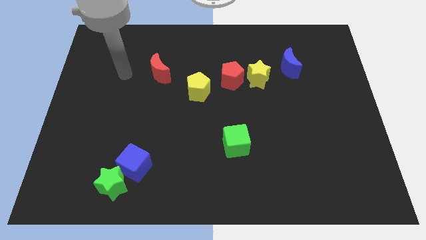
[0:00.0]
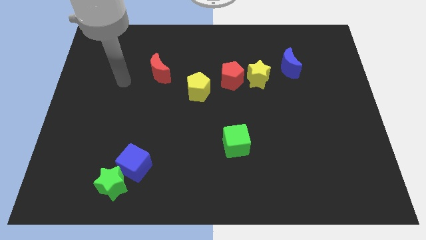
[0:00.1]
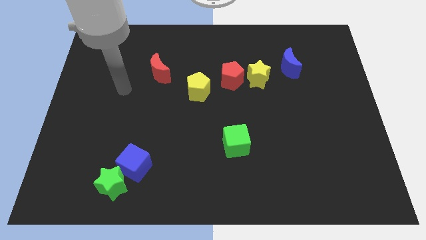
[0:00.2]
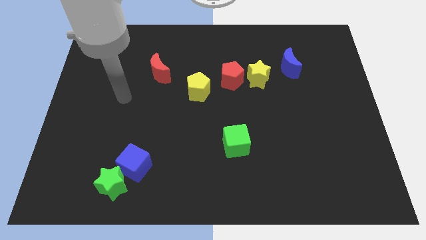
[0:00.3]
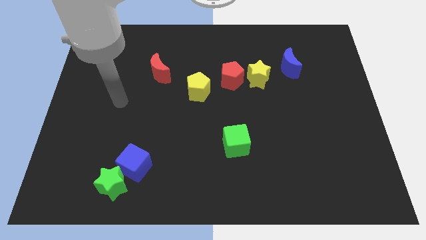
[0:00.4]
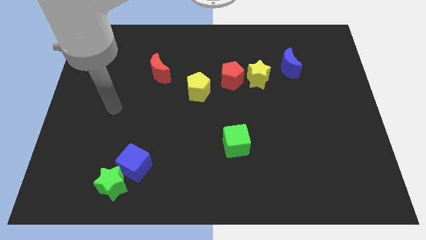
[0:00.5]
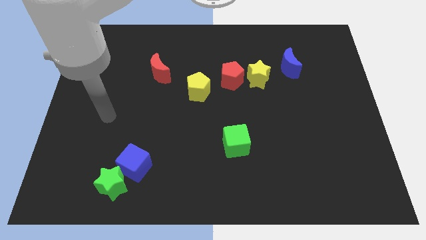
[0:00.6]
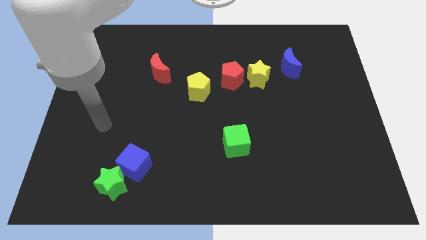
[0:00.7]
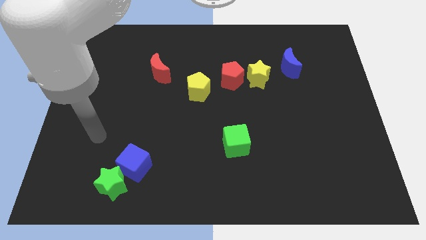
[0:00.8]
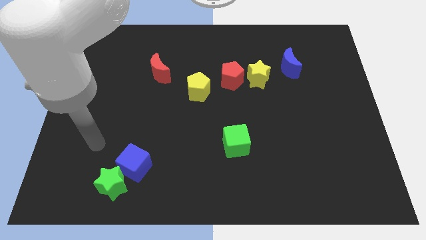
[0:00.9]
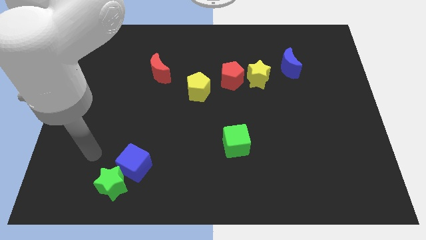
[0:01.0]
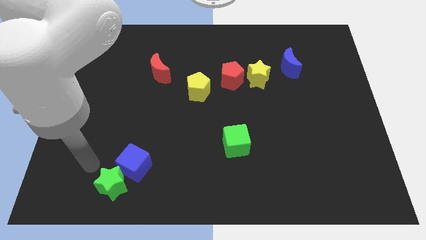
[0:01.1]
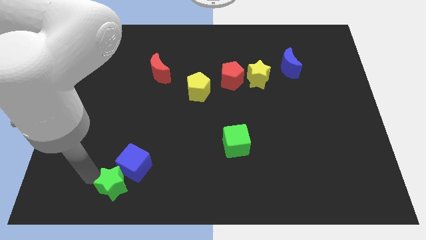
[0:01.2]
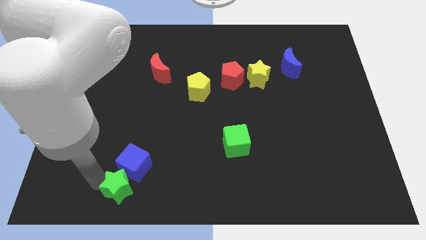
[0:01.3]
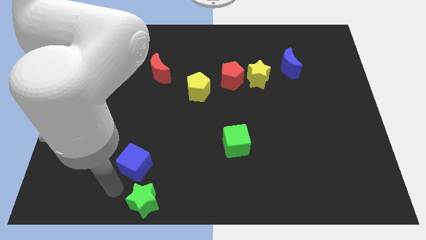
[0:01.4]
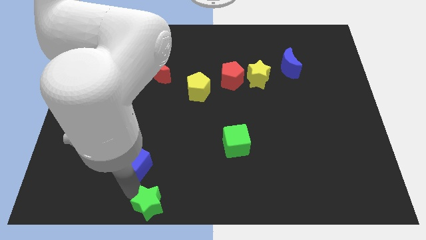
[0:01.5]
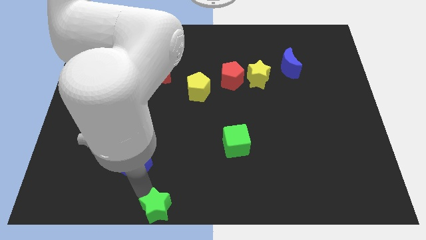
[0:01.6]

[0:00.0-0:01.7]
pull the blue cube apart from the green star

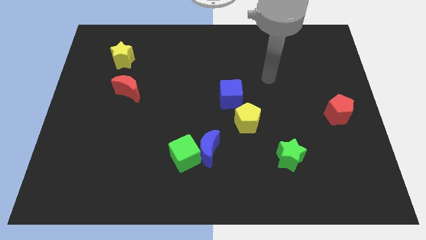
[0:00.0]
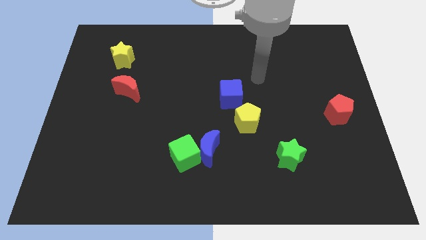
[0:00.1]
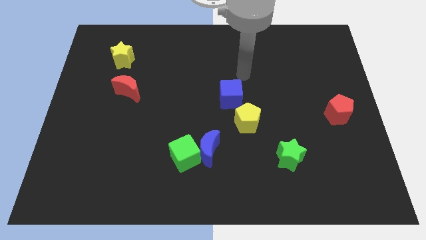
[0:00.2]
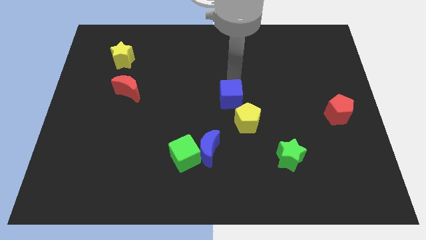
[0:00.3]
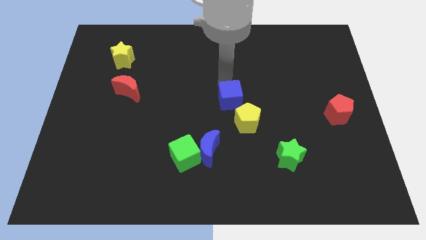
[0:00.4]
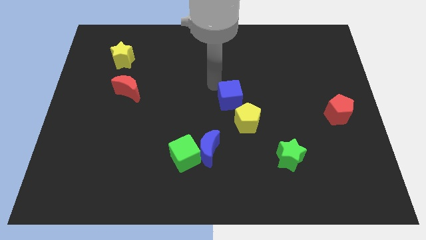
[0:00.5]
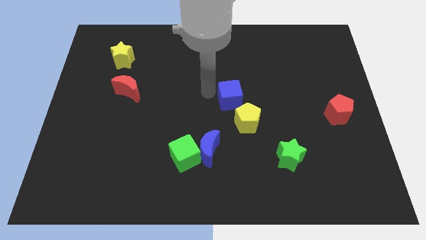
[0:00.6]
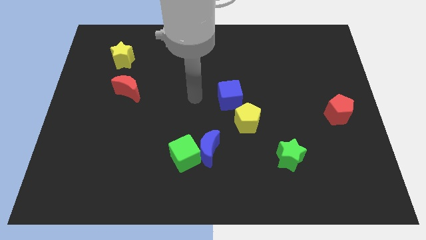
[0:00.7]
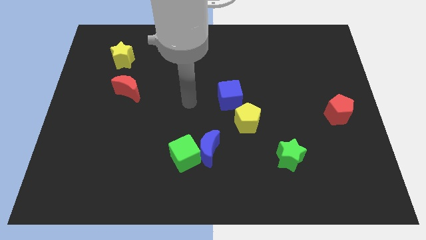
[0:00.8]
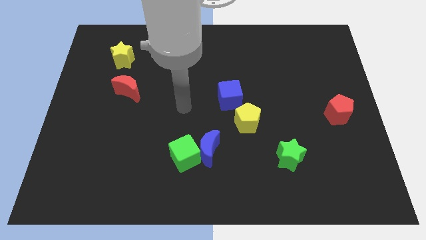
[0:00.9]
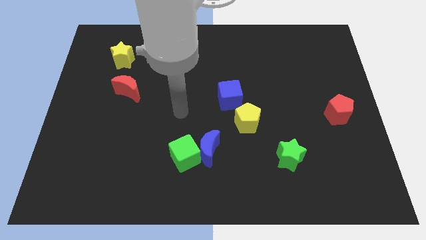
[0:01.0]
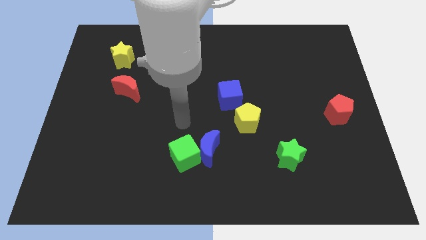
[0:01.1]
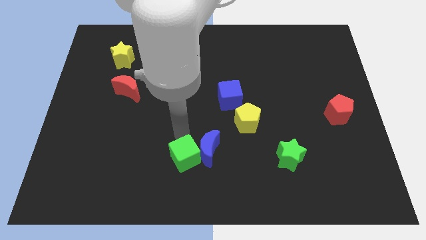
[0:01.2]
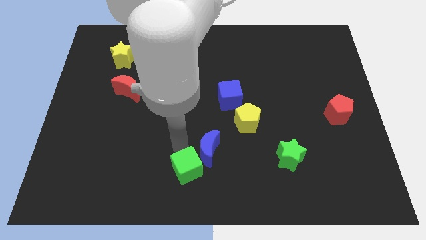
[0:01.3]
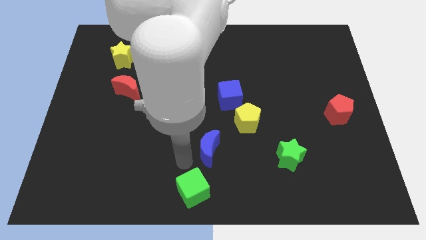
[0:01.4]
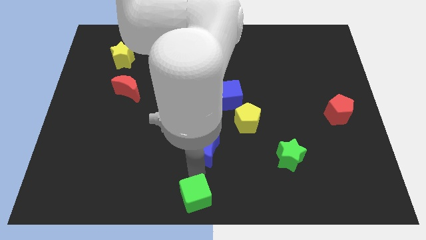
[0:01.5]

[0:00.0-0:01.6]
separate the blue moon from the green cube

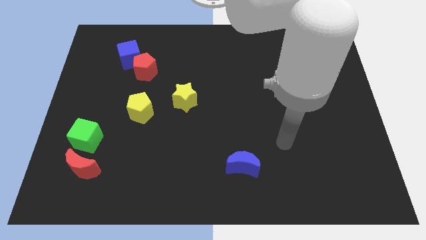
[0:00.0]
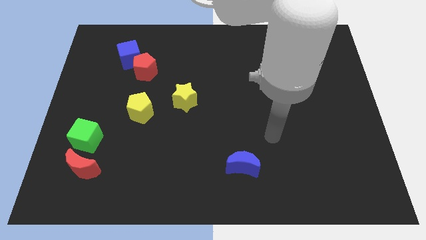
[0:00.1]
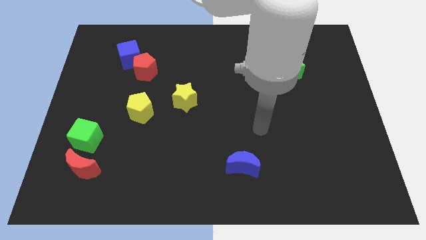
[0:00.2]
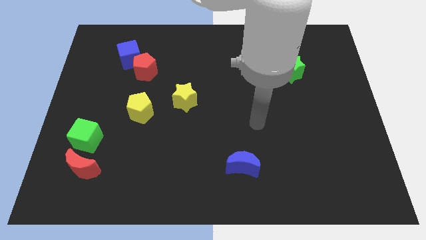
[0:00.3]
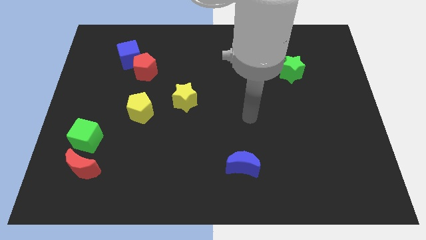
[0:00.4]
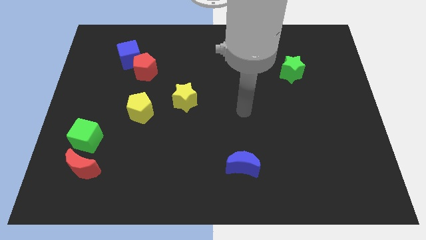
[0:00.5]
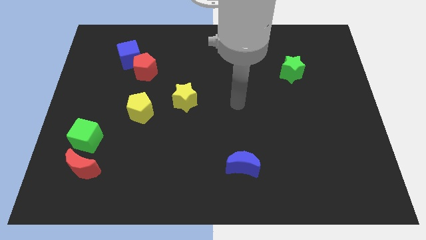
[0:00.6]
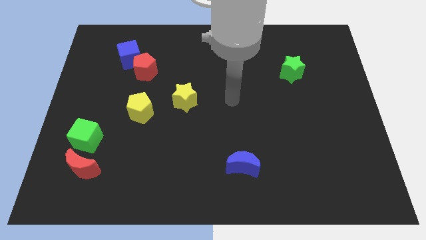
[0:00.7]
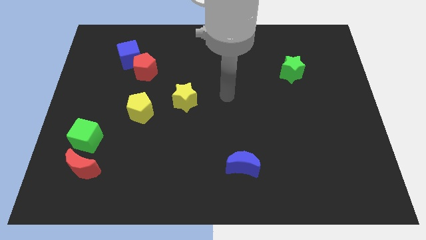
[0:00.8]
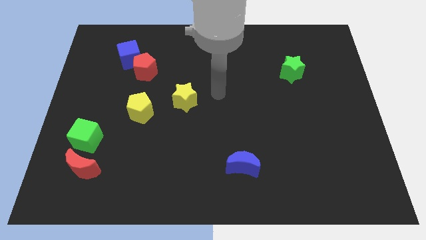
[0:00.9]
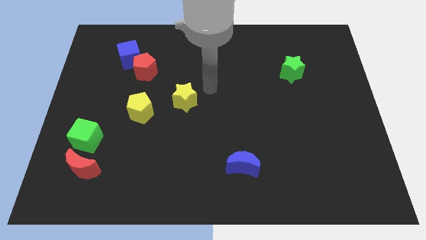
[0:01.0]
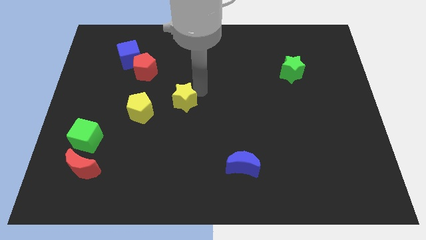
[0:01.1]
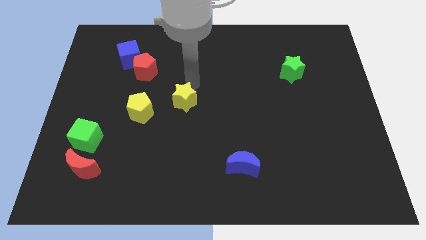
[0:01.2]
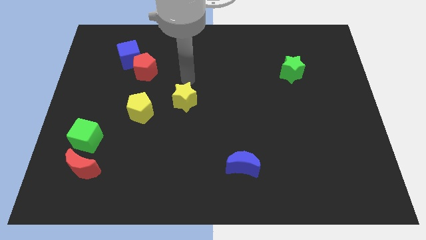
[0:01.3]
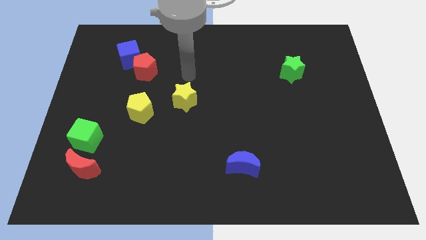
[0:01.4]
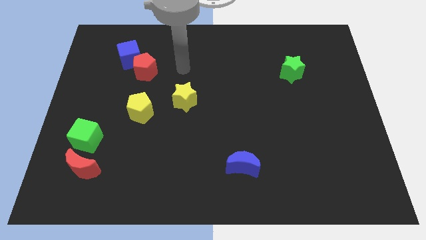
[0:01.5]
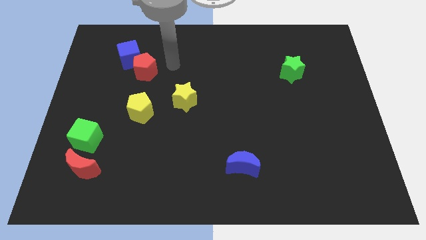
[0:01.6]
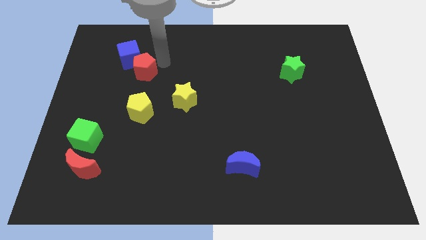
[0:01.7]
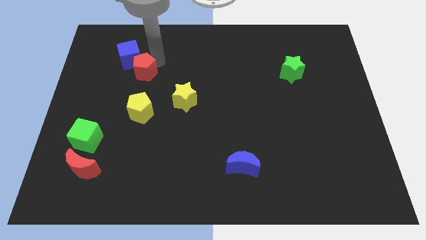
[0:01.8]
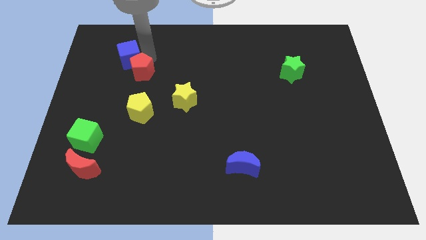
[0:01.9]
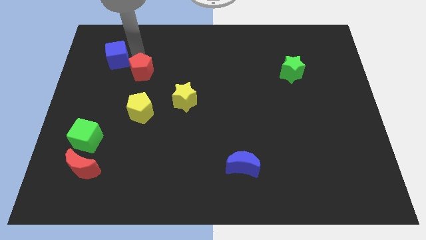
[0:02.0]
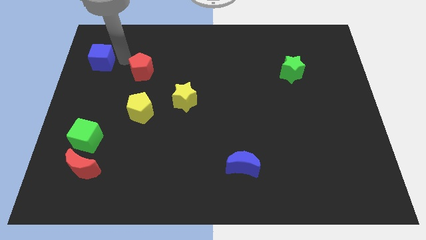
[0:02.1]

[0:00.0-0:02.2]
pull the red pentagon apart from the blue cube

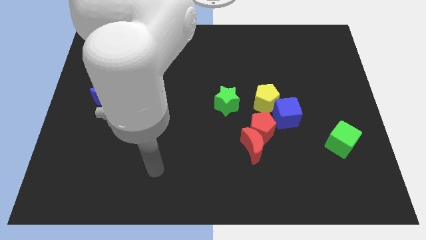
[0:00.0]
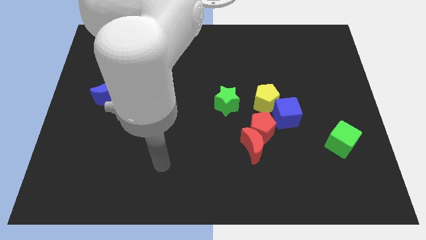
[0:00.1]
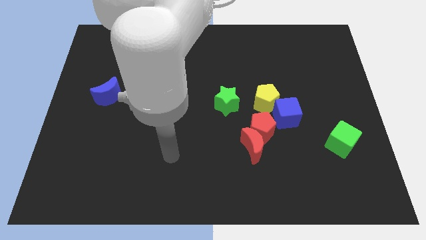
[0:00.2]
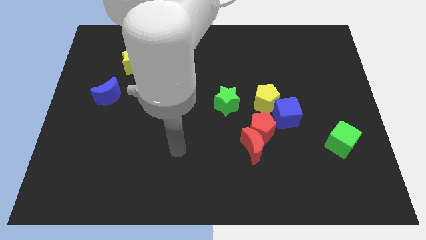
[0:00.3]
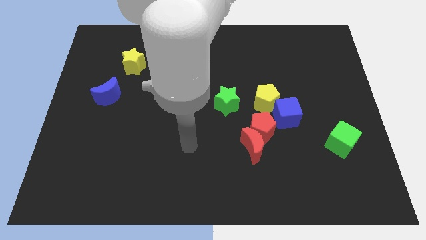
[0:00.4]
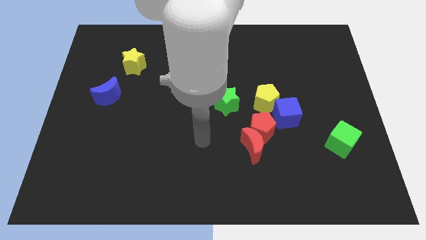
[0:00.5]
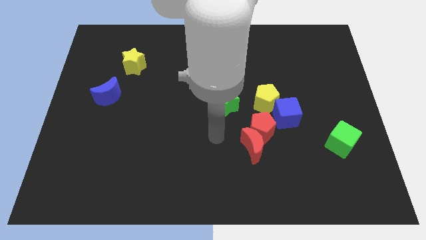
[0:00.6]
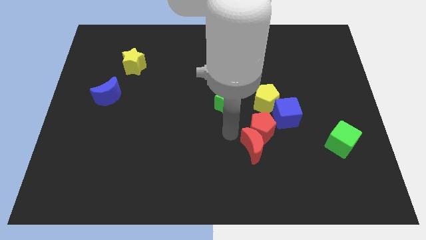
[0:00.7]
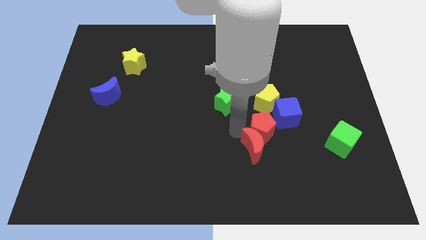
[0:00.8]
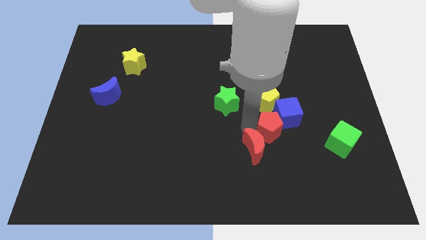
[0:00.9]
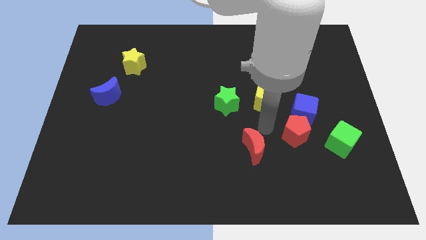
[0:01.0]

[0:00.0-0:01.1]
move the red moon away from the red pentagon

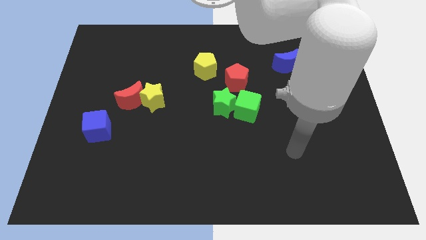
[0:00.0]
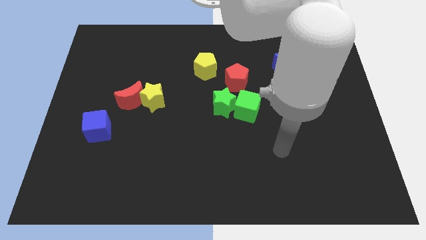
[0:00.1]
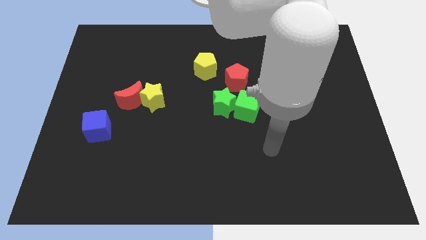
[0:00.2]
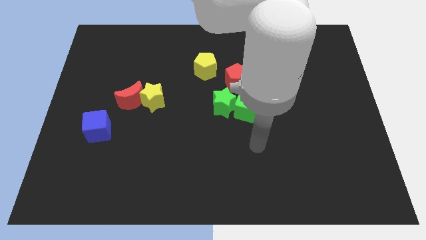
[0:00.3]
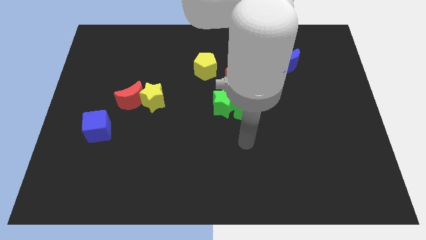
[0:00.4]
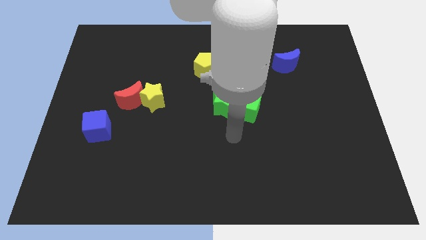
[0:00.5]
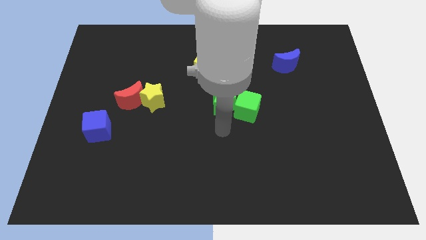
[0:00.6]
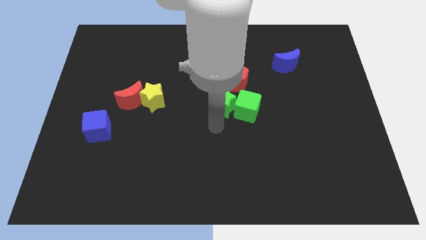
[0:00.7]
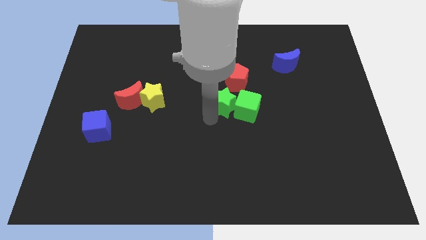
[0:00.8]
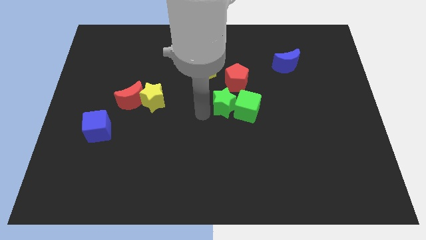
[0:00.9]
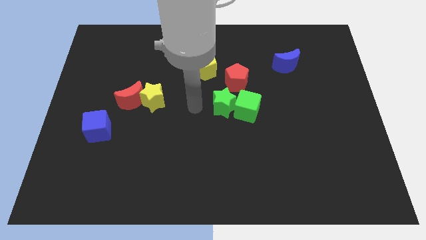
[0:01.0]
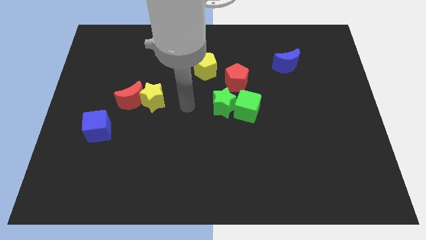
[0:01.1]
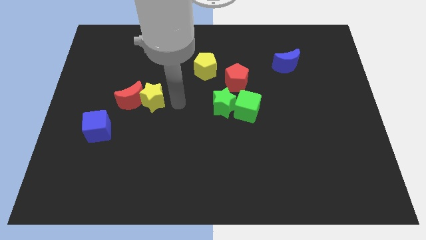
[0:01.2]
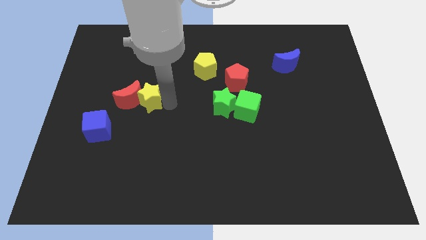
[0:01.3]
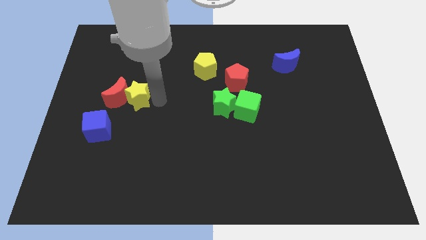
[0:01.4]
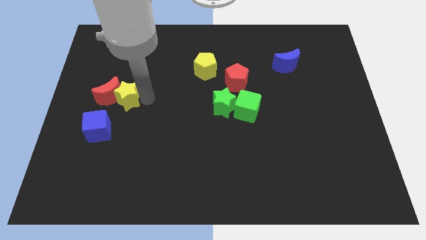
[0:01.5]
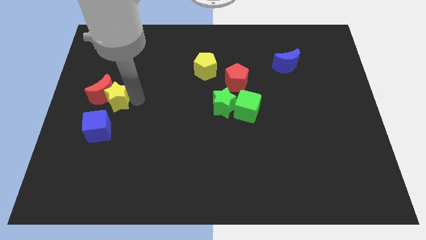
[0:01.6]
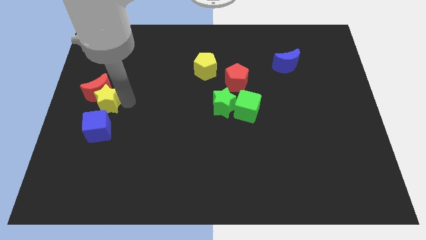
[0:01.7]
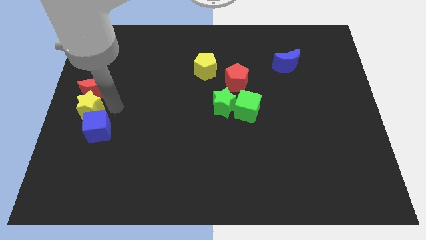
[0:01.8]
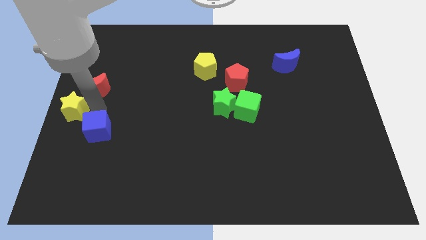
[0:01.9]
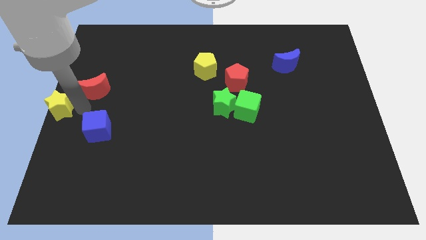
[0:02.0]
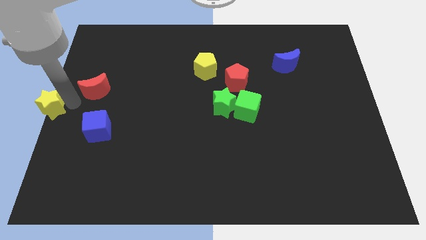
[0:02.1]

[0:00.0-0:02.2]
move the red moon away from the yellow star

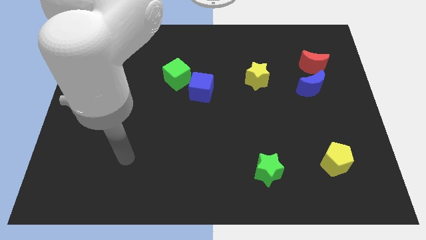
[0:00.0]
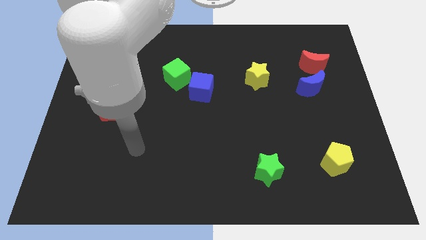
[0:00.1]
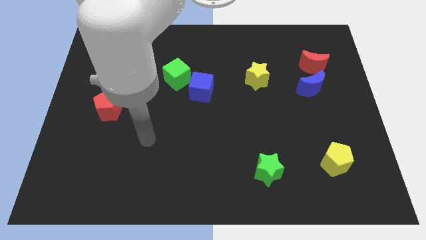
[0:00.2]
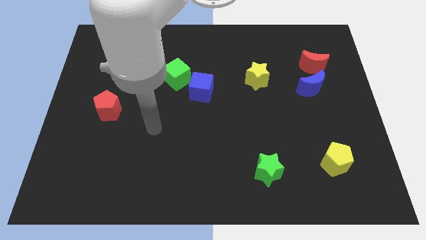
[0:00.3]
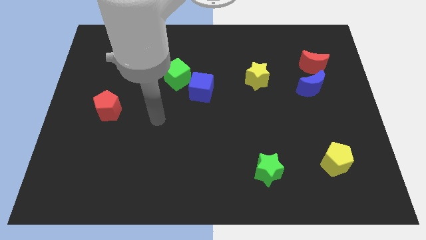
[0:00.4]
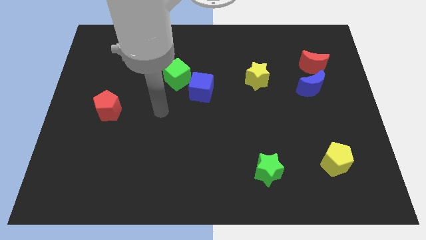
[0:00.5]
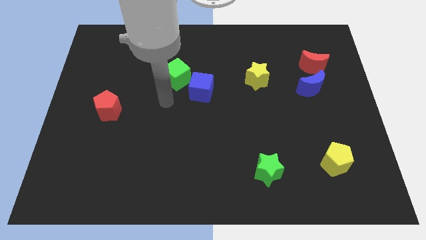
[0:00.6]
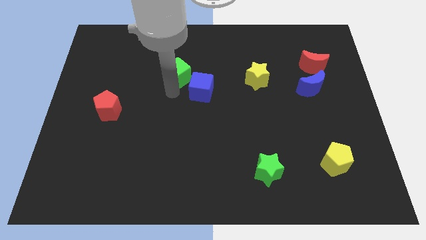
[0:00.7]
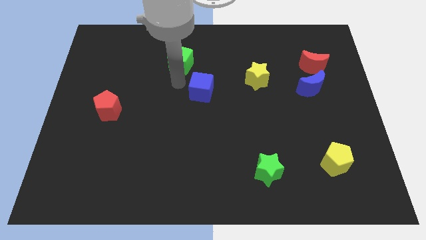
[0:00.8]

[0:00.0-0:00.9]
pull the blue cube apart from the green cube
